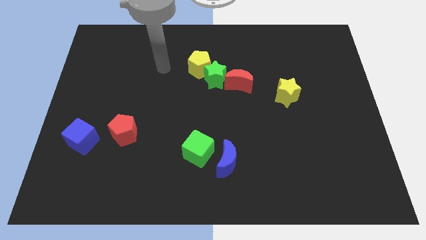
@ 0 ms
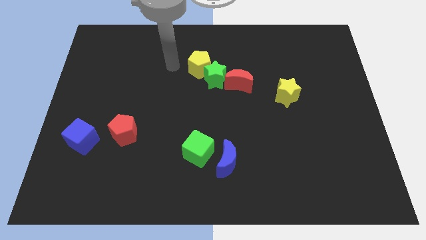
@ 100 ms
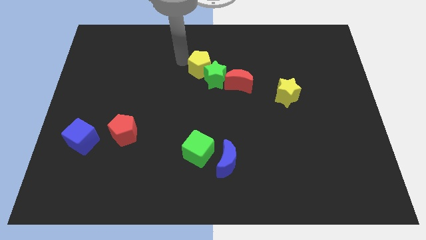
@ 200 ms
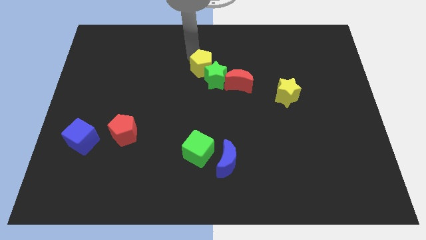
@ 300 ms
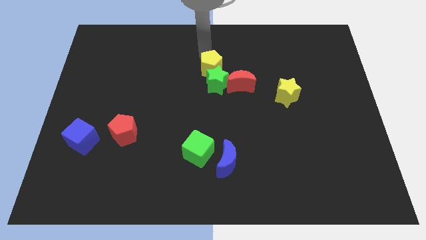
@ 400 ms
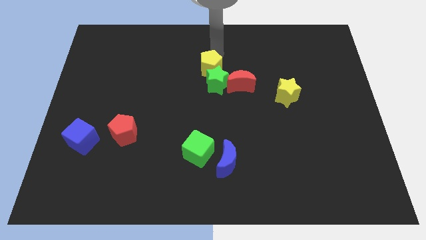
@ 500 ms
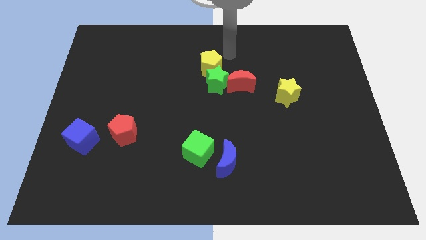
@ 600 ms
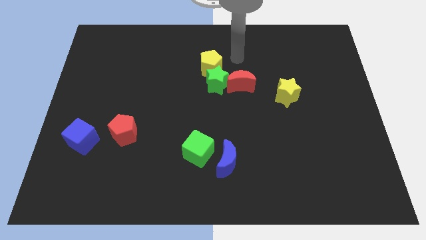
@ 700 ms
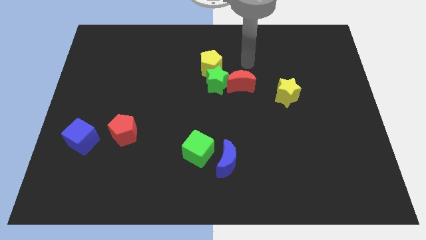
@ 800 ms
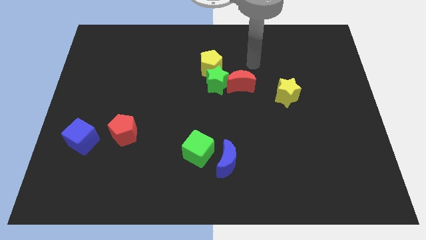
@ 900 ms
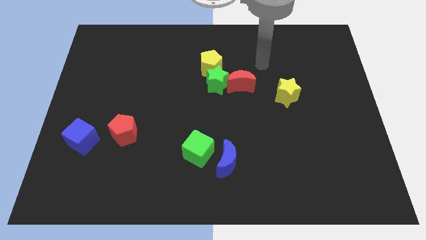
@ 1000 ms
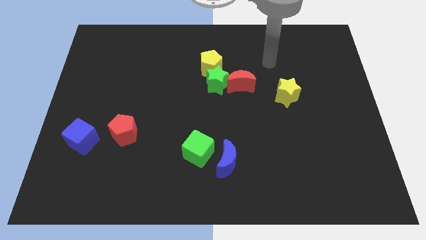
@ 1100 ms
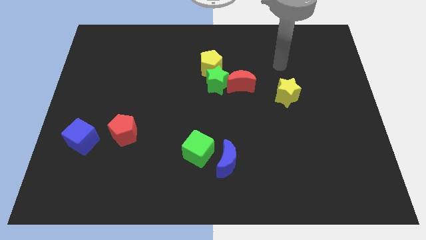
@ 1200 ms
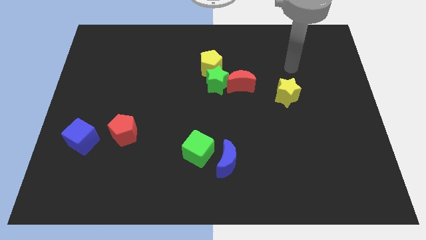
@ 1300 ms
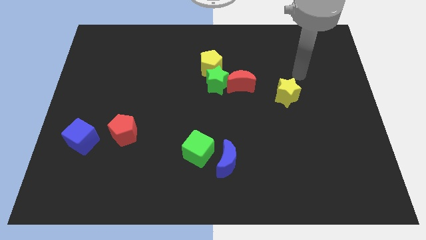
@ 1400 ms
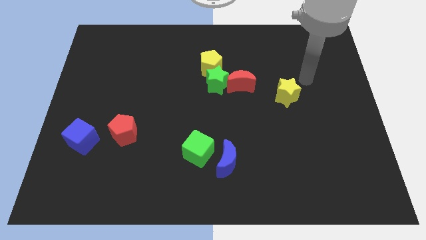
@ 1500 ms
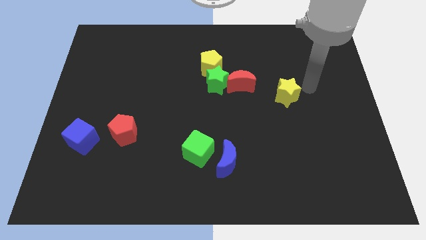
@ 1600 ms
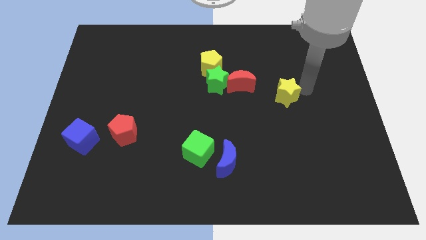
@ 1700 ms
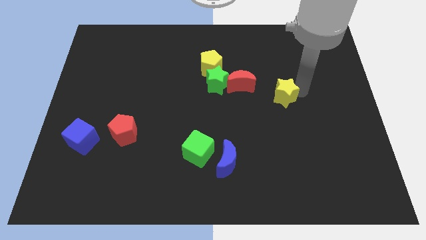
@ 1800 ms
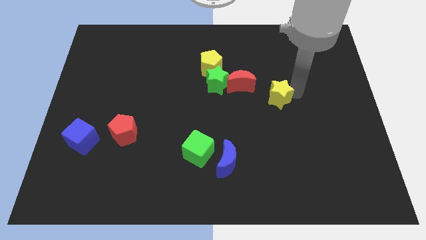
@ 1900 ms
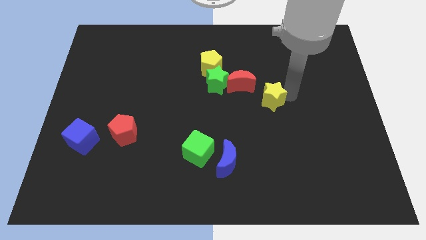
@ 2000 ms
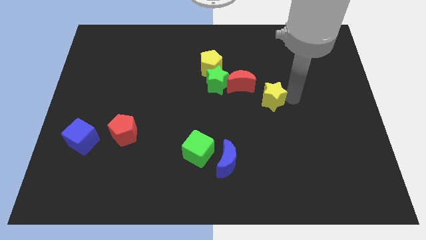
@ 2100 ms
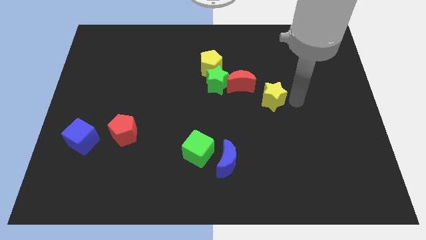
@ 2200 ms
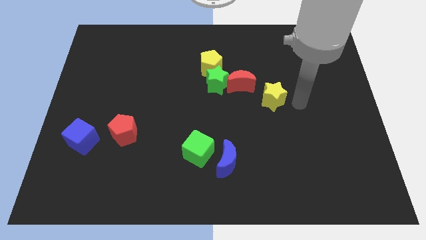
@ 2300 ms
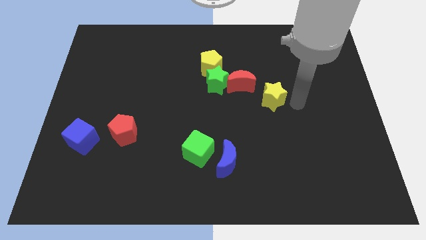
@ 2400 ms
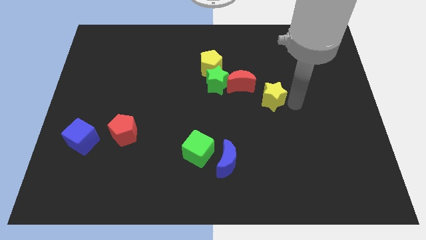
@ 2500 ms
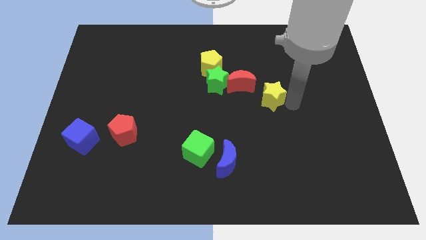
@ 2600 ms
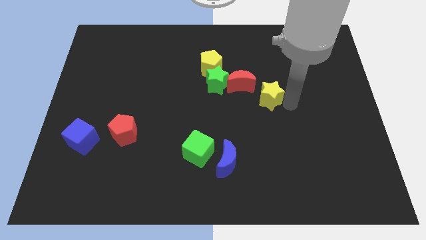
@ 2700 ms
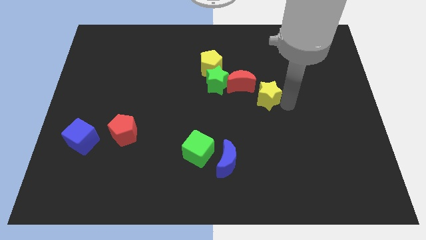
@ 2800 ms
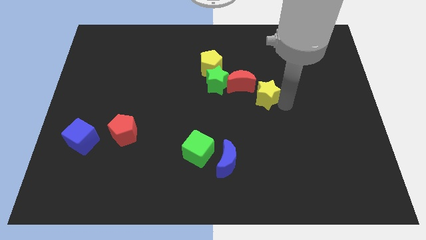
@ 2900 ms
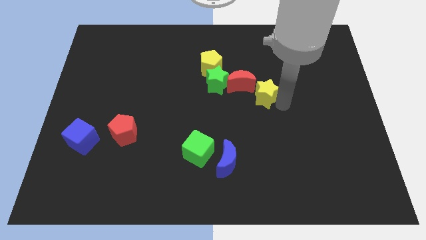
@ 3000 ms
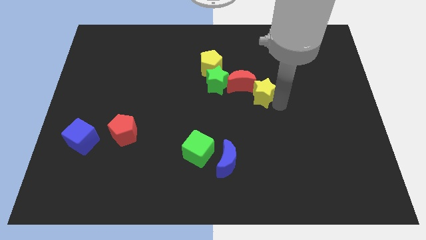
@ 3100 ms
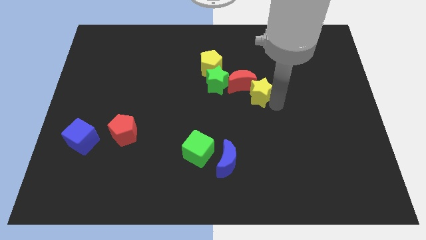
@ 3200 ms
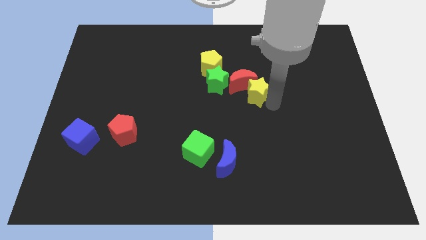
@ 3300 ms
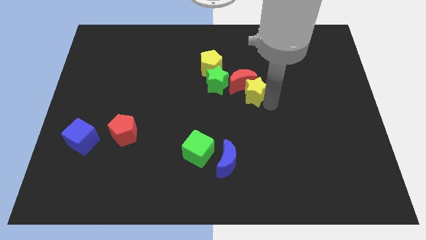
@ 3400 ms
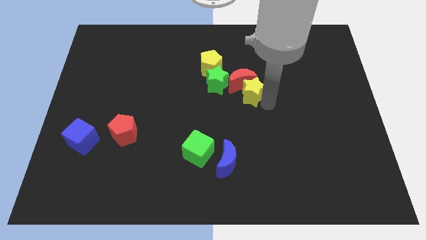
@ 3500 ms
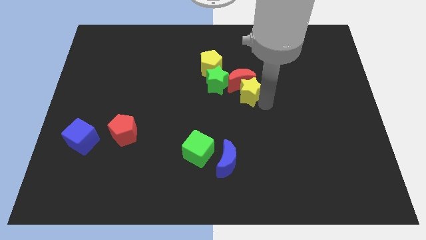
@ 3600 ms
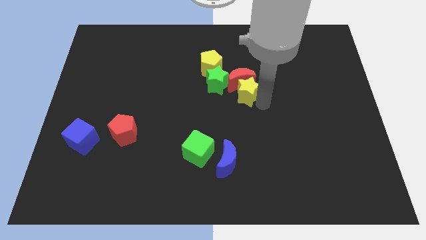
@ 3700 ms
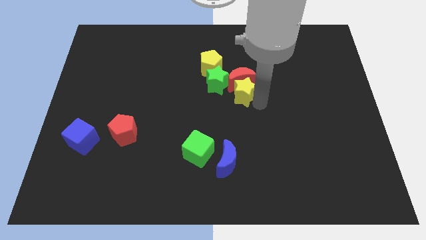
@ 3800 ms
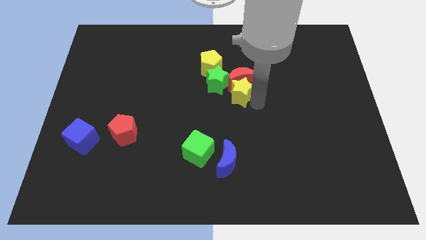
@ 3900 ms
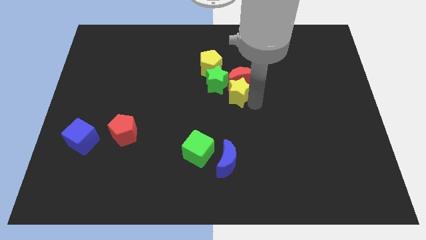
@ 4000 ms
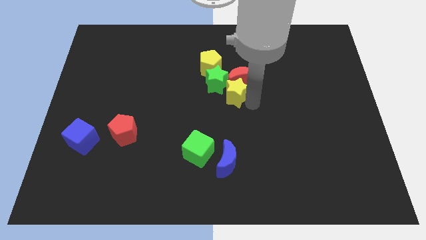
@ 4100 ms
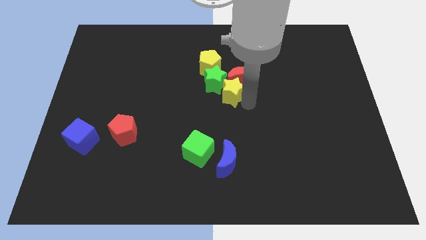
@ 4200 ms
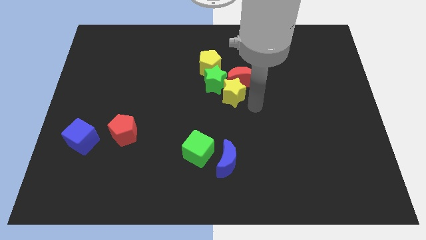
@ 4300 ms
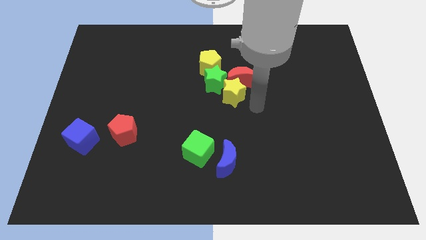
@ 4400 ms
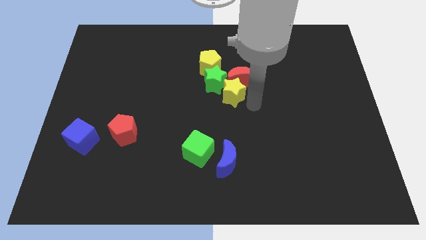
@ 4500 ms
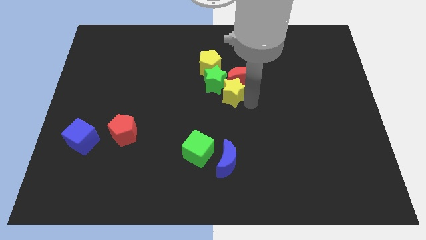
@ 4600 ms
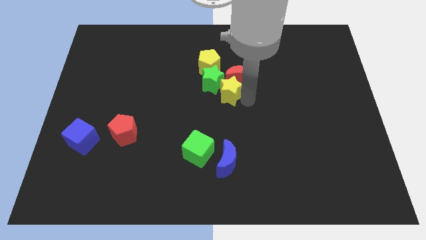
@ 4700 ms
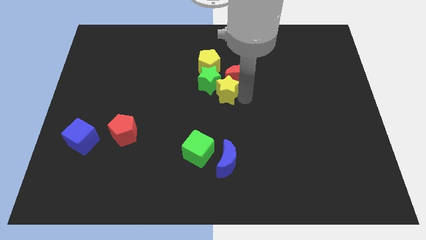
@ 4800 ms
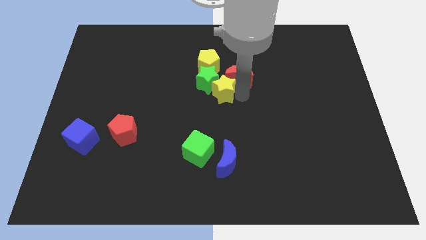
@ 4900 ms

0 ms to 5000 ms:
slide the yellow star left of the red moon

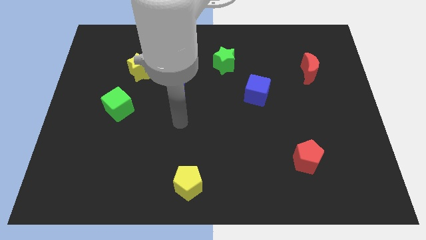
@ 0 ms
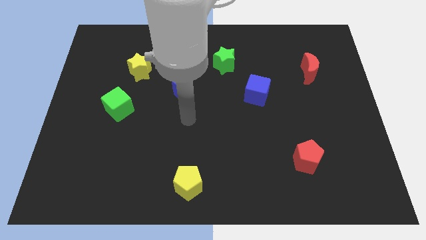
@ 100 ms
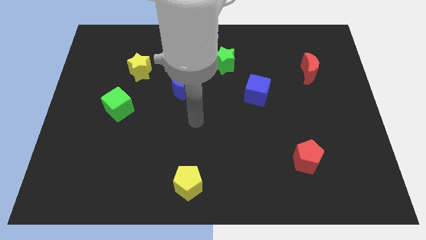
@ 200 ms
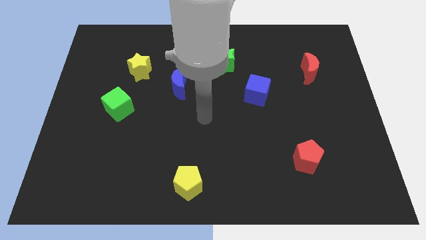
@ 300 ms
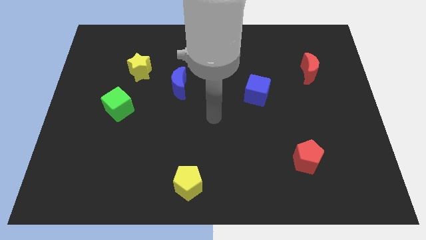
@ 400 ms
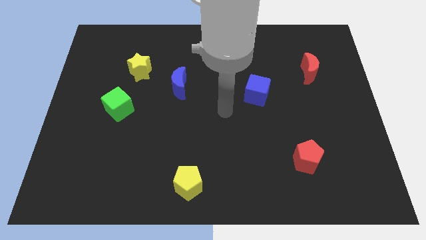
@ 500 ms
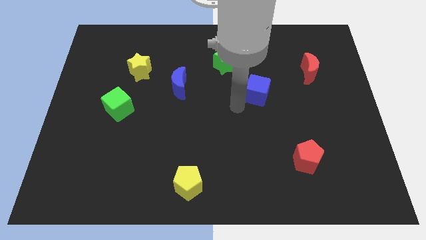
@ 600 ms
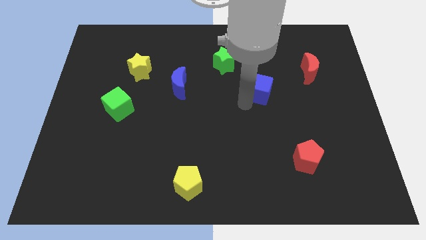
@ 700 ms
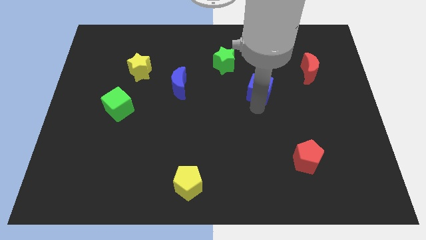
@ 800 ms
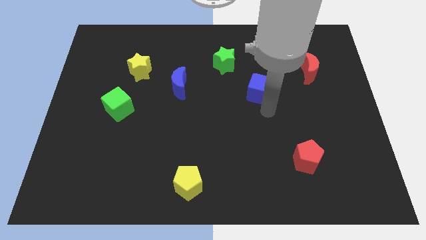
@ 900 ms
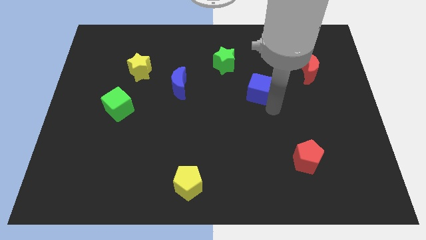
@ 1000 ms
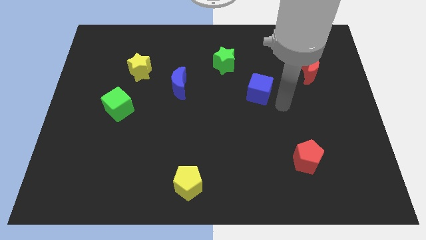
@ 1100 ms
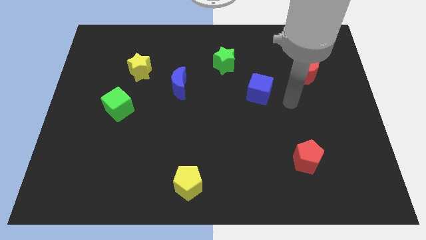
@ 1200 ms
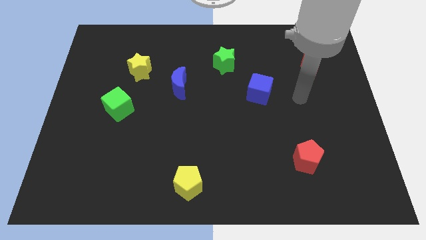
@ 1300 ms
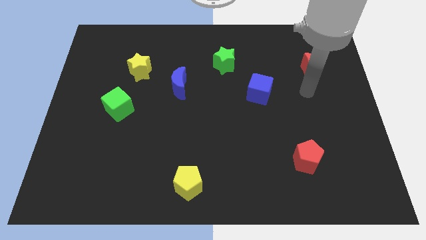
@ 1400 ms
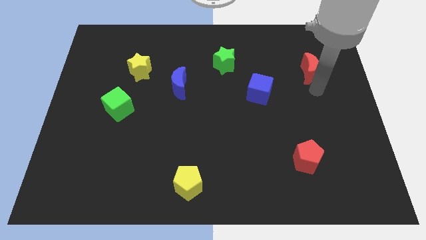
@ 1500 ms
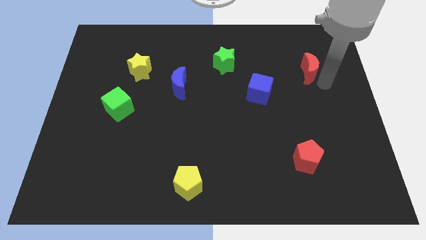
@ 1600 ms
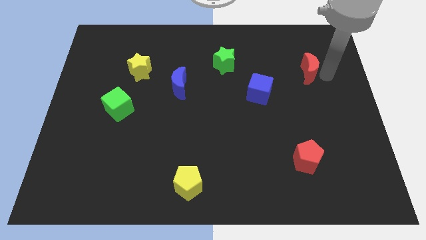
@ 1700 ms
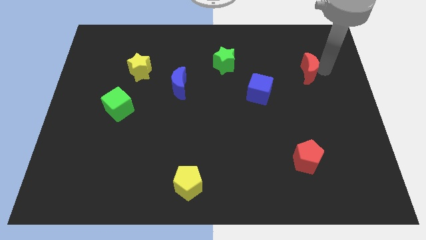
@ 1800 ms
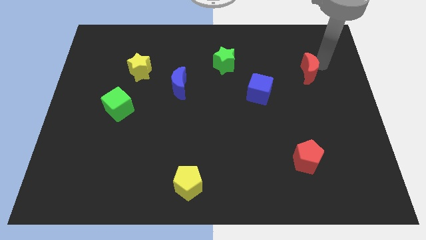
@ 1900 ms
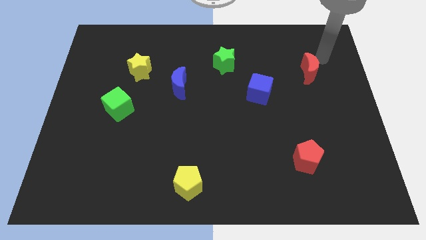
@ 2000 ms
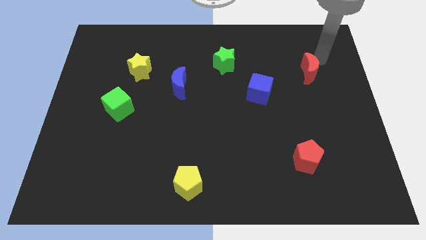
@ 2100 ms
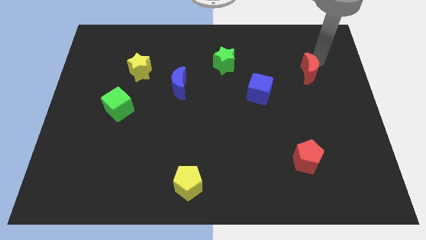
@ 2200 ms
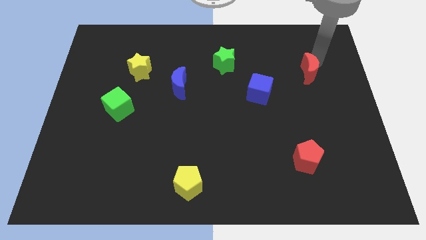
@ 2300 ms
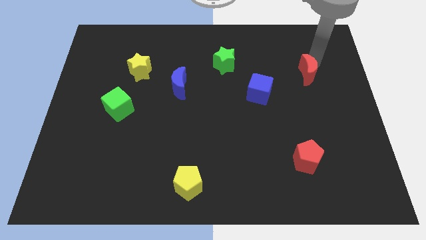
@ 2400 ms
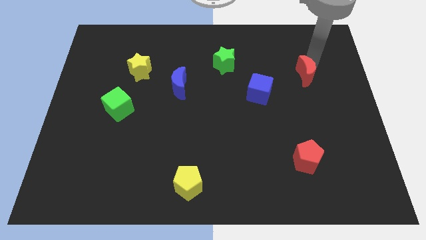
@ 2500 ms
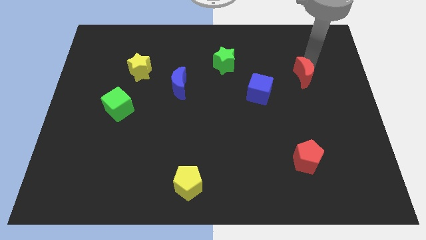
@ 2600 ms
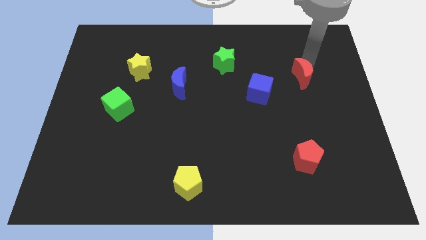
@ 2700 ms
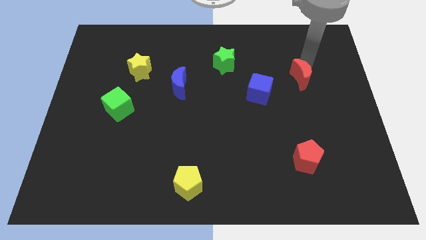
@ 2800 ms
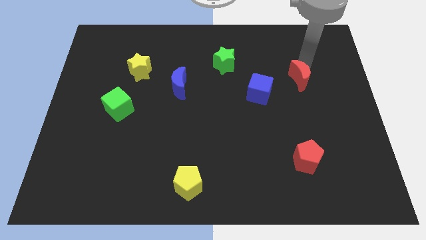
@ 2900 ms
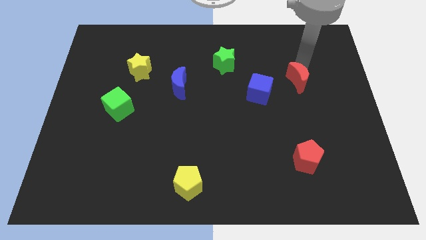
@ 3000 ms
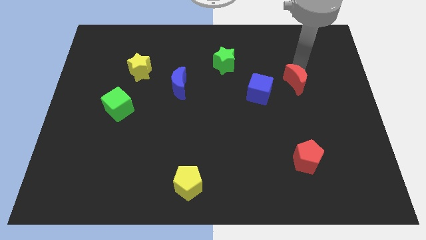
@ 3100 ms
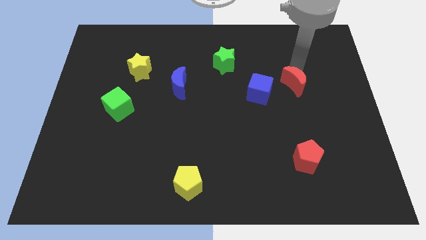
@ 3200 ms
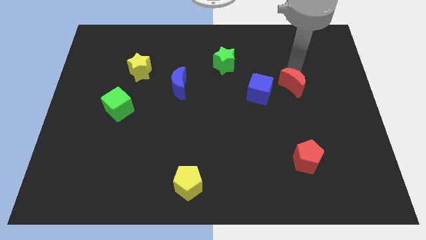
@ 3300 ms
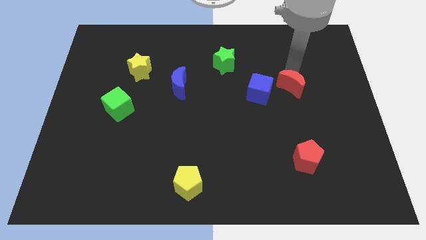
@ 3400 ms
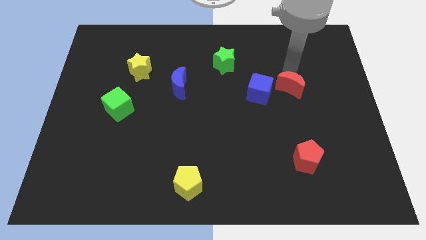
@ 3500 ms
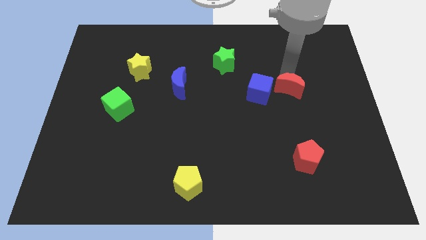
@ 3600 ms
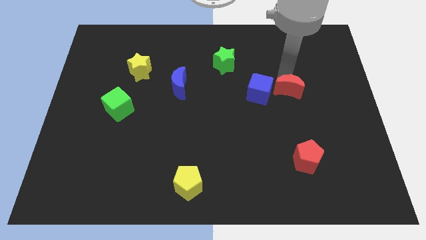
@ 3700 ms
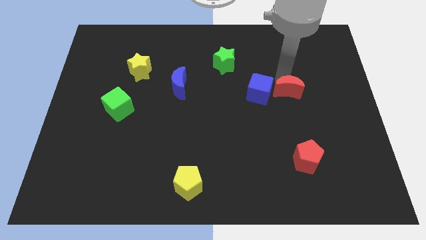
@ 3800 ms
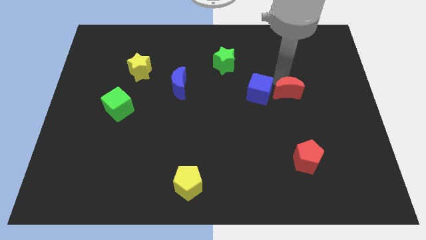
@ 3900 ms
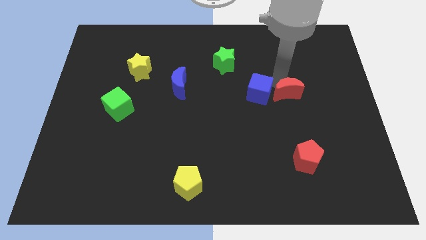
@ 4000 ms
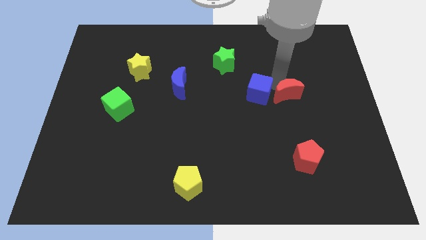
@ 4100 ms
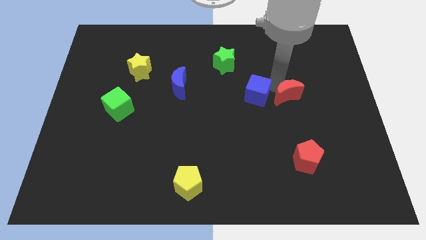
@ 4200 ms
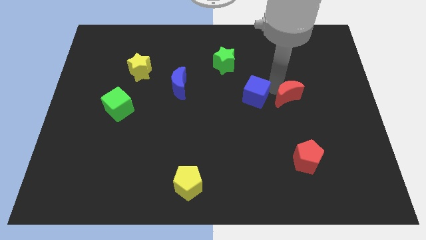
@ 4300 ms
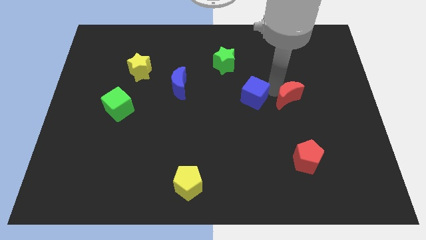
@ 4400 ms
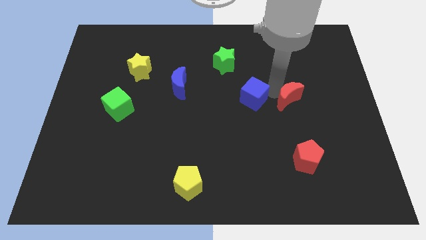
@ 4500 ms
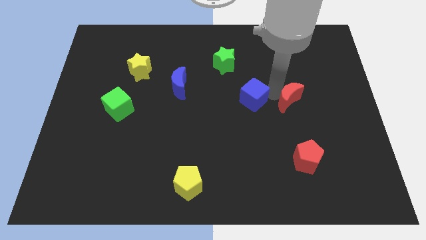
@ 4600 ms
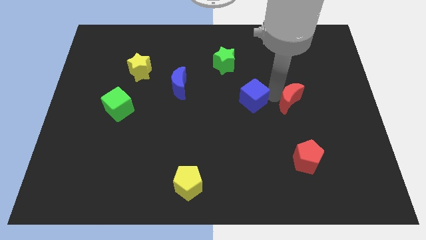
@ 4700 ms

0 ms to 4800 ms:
slide the red moon above the red pentagon
